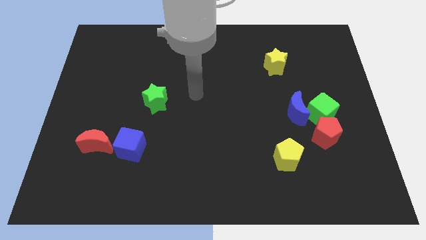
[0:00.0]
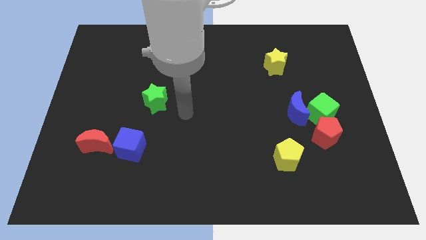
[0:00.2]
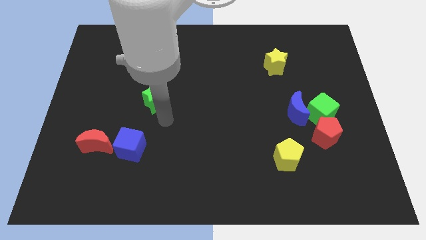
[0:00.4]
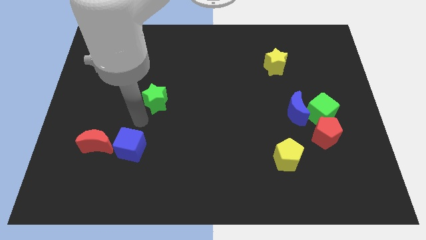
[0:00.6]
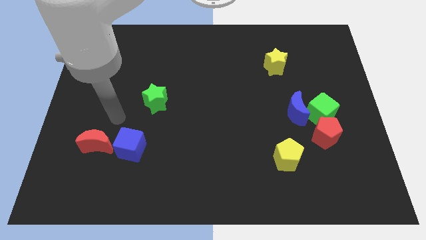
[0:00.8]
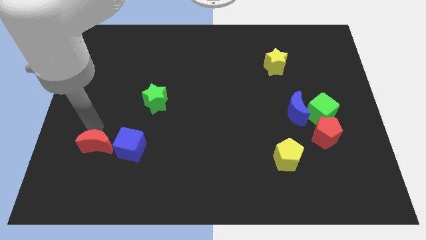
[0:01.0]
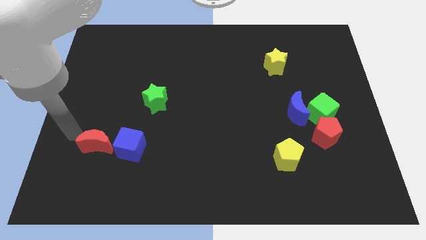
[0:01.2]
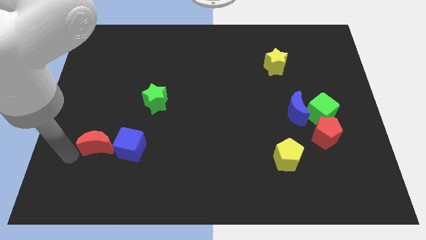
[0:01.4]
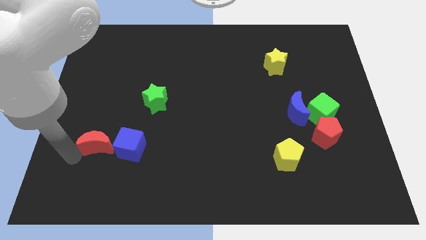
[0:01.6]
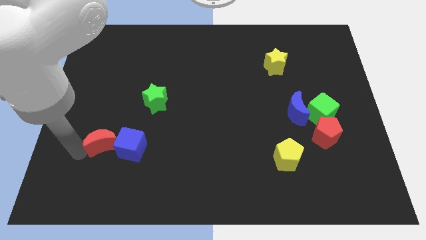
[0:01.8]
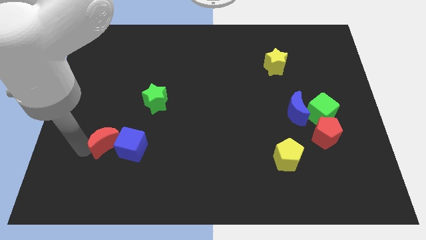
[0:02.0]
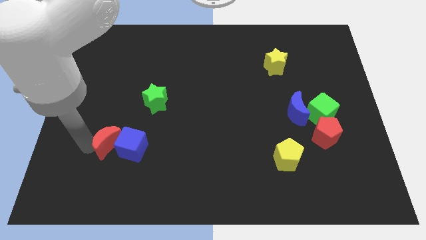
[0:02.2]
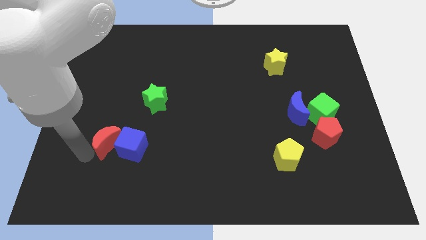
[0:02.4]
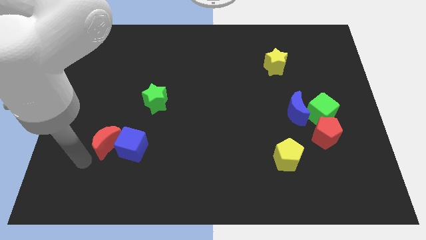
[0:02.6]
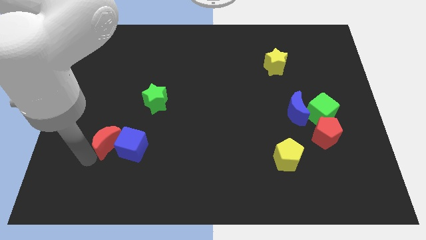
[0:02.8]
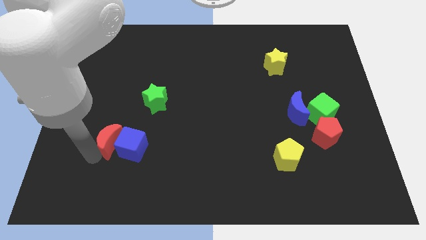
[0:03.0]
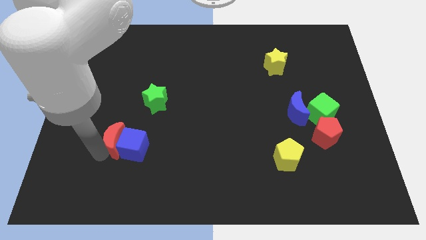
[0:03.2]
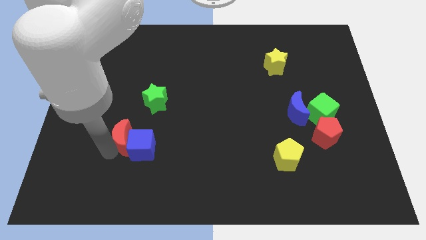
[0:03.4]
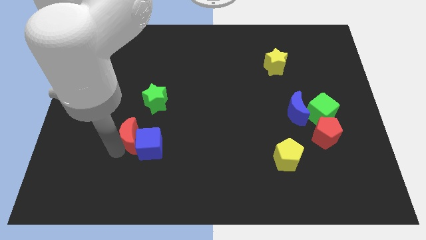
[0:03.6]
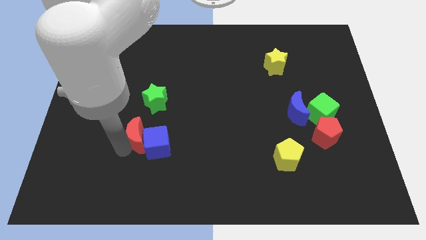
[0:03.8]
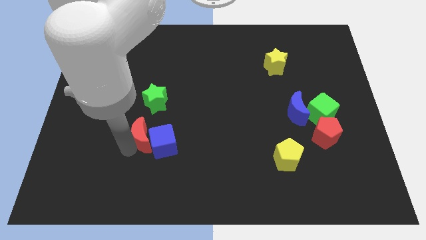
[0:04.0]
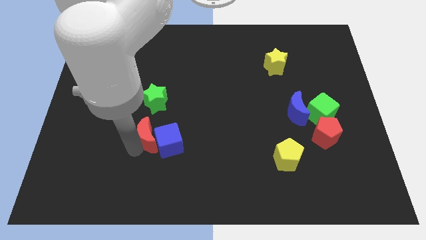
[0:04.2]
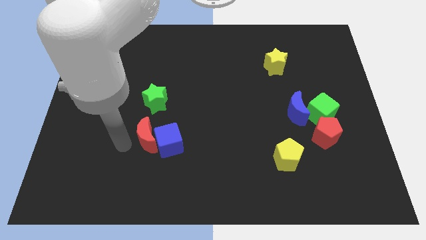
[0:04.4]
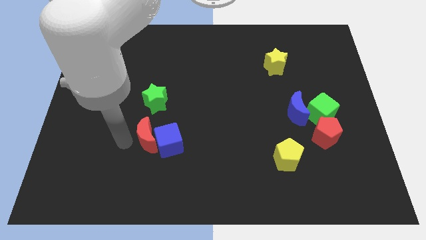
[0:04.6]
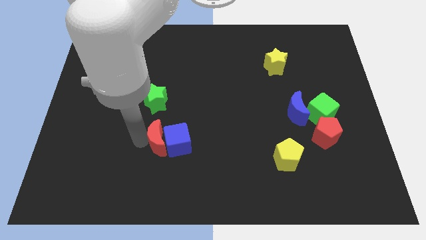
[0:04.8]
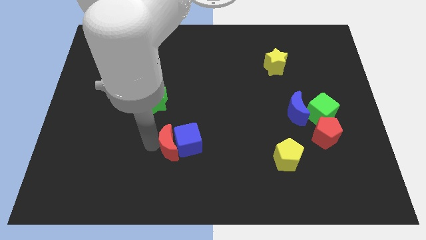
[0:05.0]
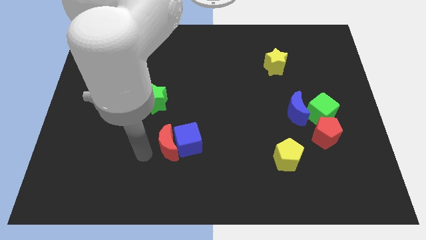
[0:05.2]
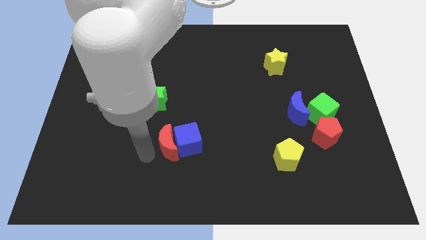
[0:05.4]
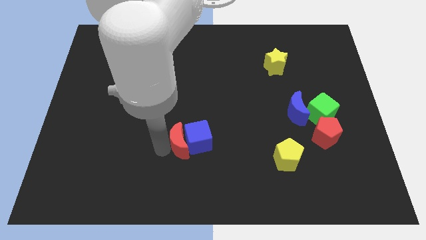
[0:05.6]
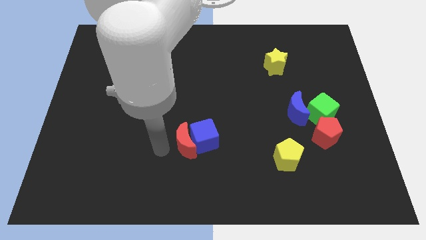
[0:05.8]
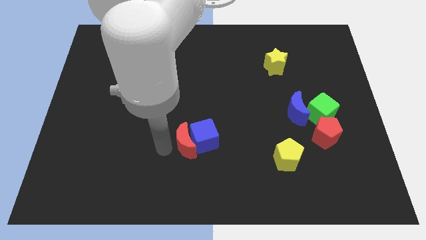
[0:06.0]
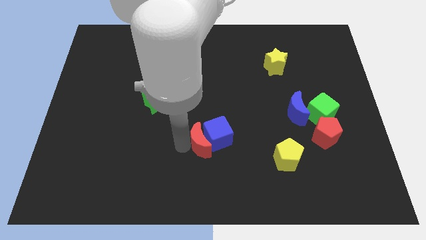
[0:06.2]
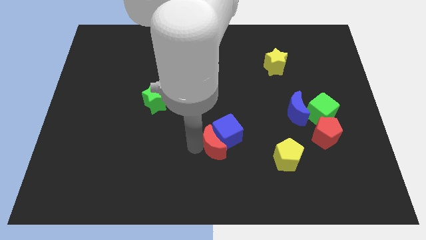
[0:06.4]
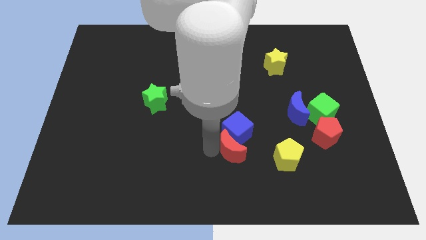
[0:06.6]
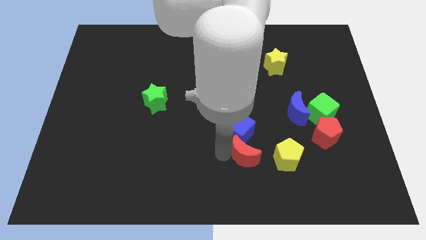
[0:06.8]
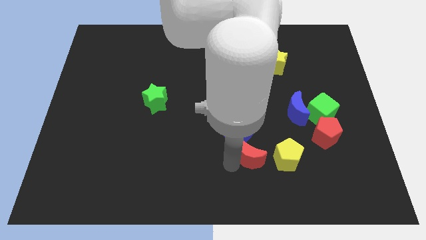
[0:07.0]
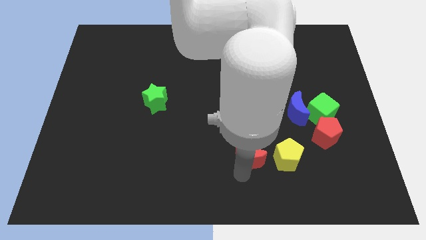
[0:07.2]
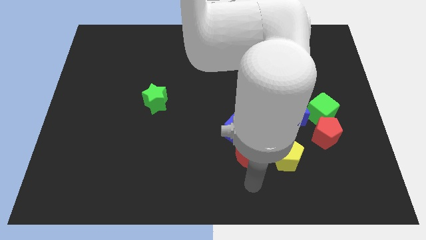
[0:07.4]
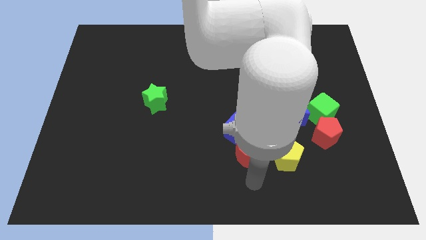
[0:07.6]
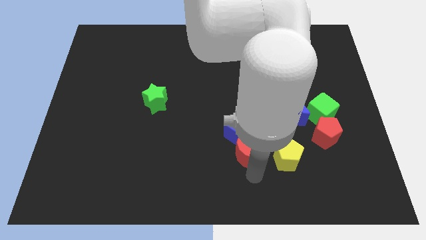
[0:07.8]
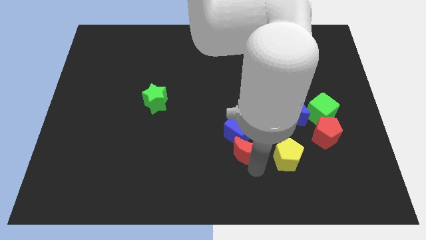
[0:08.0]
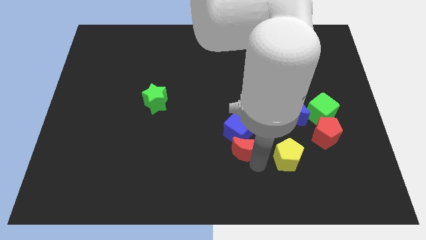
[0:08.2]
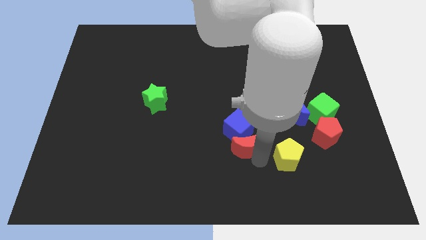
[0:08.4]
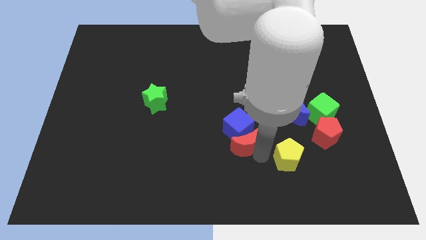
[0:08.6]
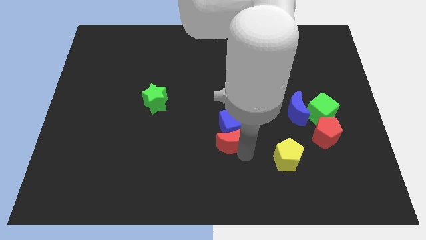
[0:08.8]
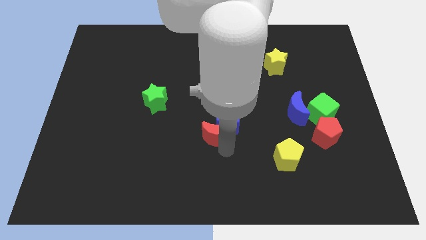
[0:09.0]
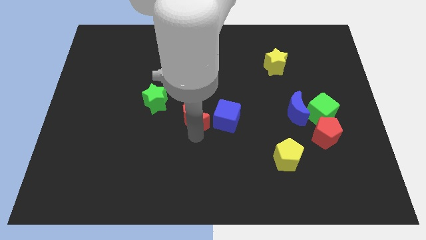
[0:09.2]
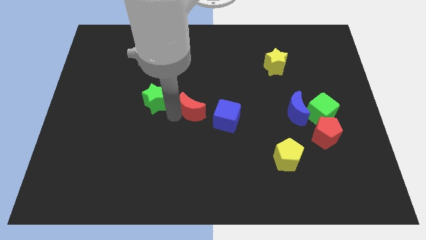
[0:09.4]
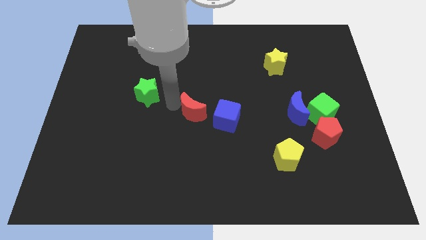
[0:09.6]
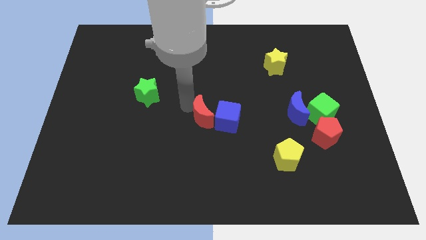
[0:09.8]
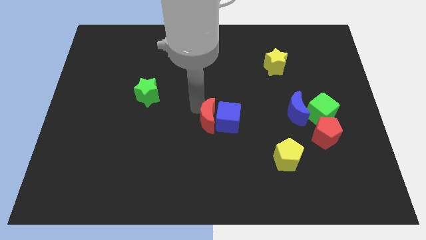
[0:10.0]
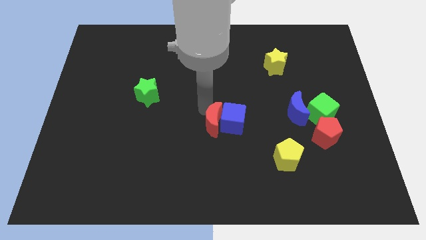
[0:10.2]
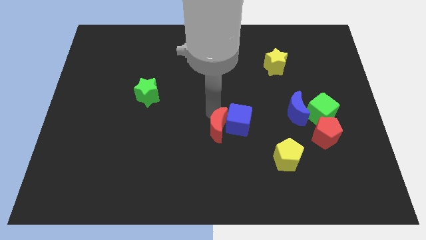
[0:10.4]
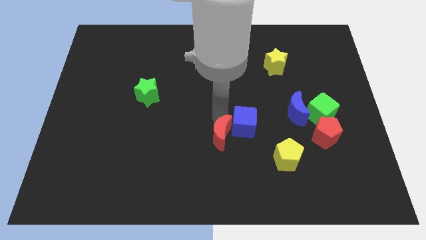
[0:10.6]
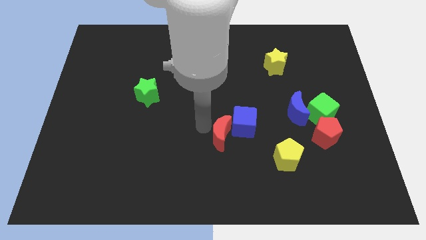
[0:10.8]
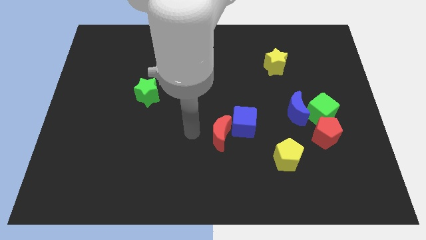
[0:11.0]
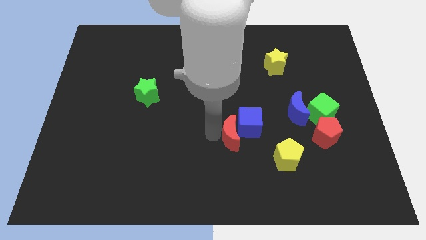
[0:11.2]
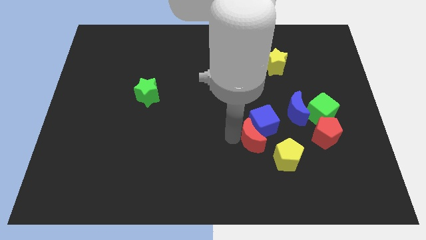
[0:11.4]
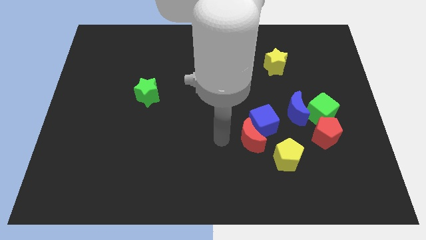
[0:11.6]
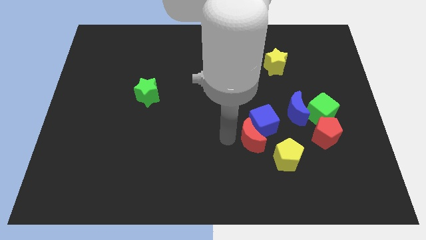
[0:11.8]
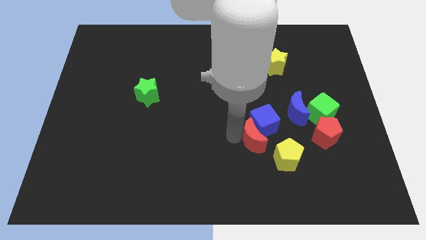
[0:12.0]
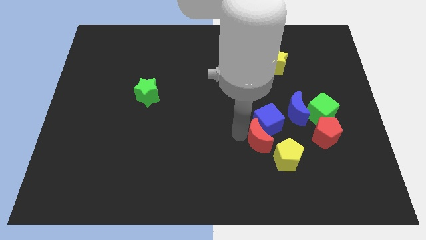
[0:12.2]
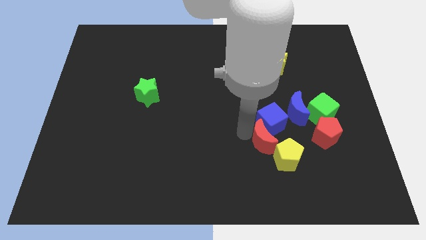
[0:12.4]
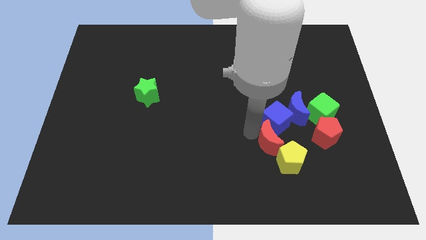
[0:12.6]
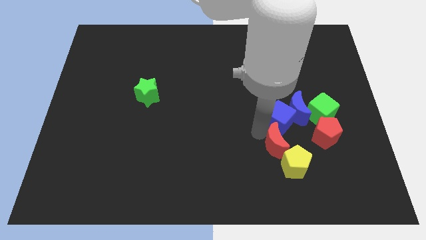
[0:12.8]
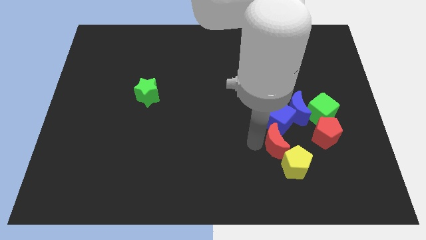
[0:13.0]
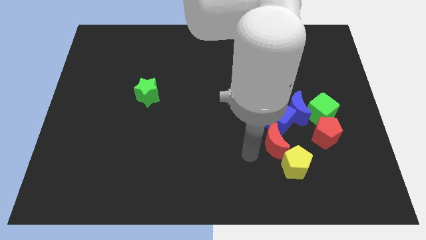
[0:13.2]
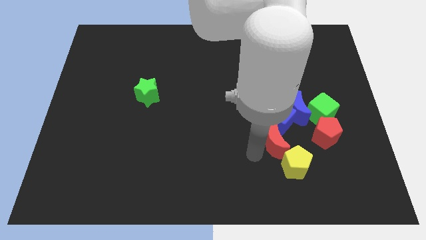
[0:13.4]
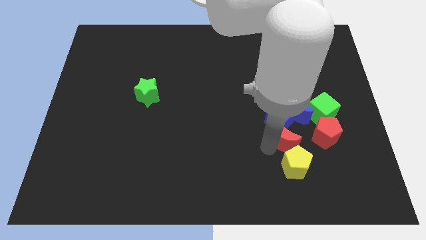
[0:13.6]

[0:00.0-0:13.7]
put the red moon to the bottom left side of the green cube

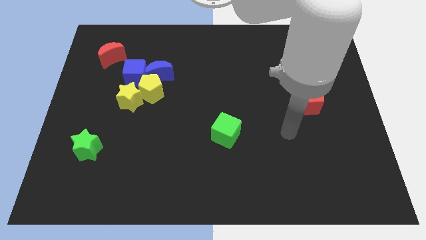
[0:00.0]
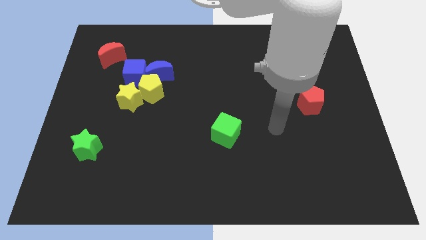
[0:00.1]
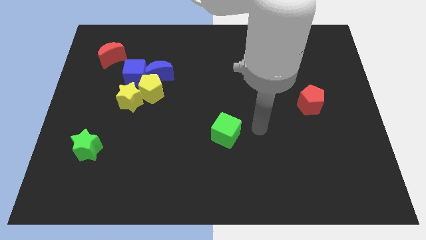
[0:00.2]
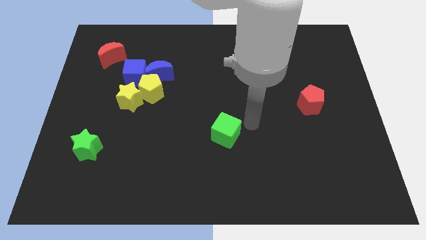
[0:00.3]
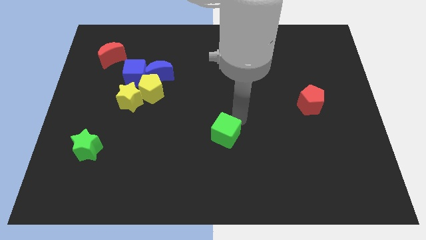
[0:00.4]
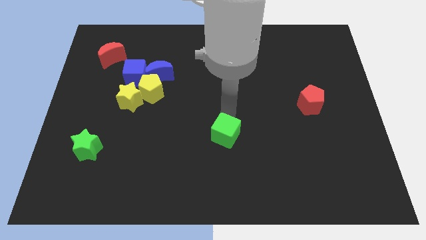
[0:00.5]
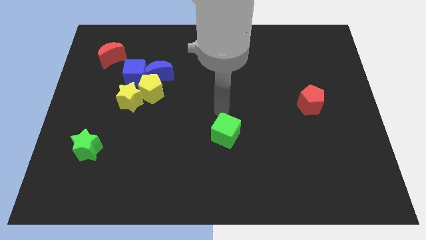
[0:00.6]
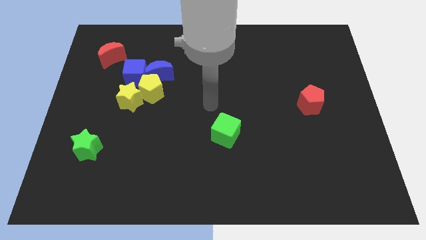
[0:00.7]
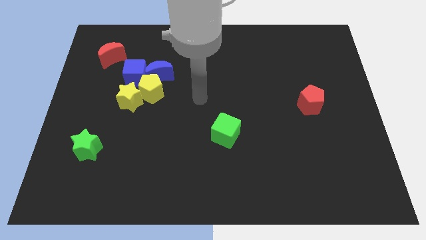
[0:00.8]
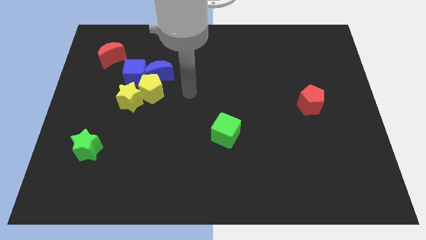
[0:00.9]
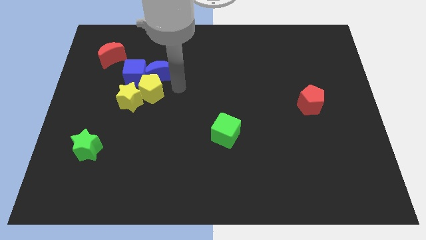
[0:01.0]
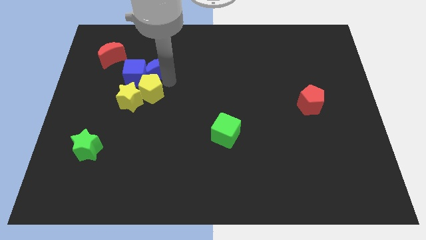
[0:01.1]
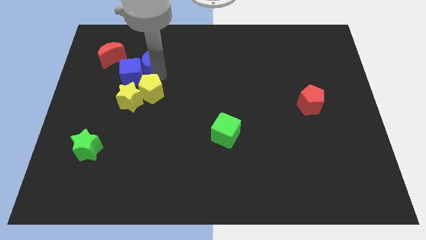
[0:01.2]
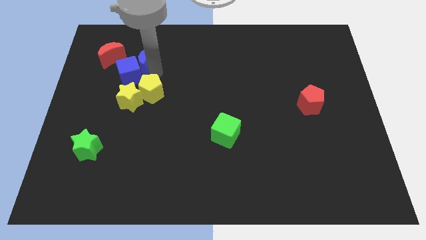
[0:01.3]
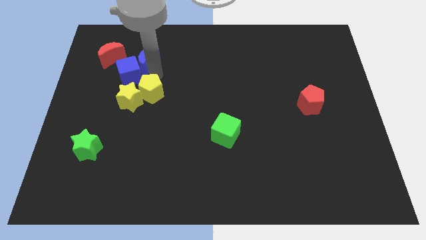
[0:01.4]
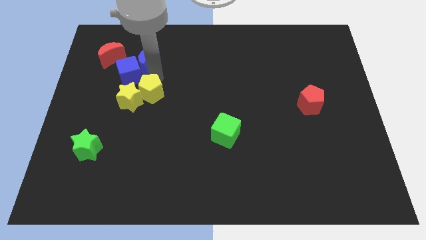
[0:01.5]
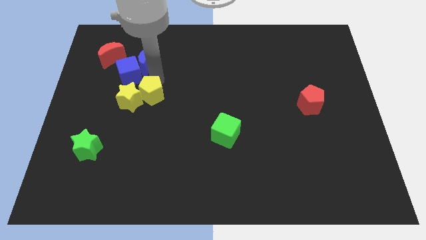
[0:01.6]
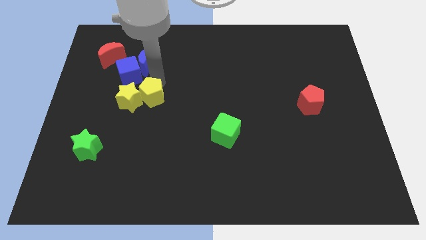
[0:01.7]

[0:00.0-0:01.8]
push the yellow pentagon to the bottom right side of the yellow star
